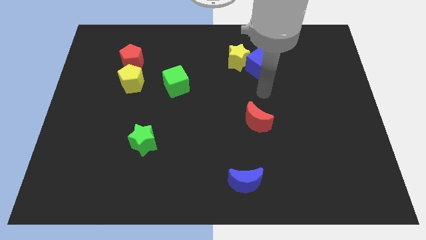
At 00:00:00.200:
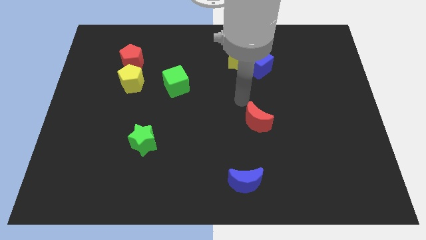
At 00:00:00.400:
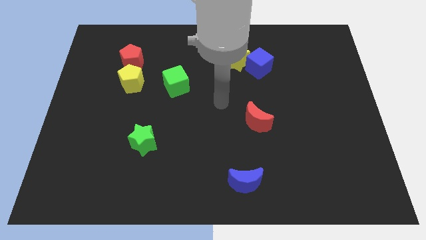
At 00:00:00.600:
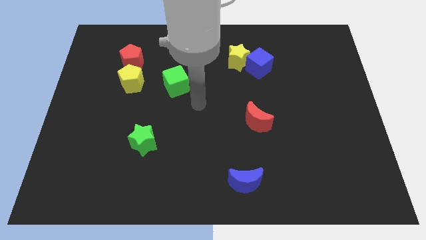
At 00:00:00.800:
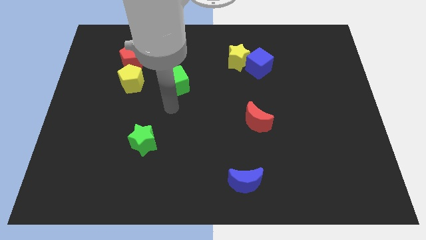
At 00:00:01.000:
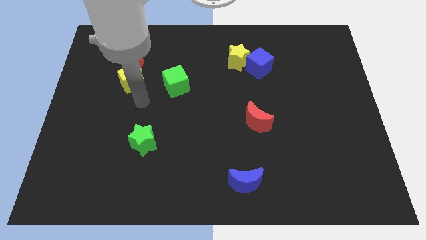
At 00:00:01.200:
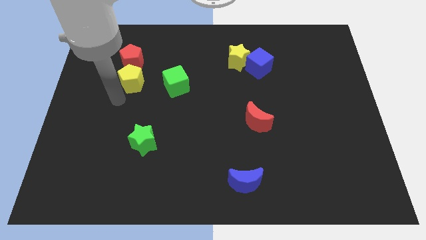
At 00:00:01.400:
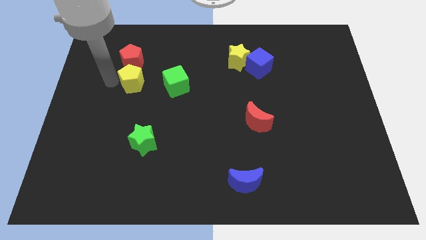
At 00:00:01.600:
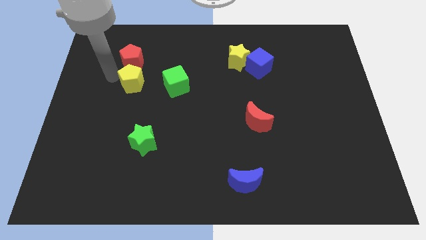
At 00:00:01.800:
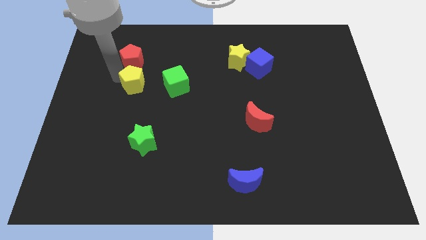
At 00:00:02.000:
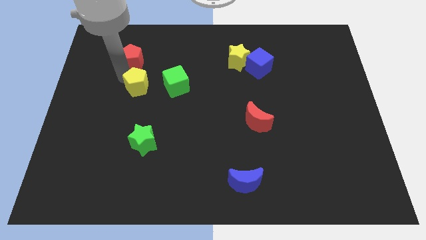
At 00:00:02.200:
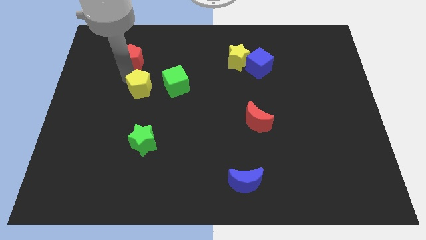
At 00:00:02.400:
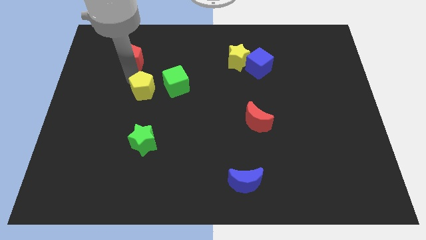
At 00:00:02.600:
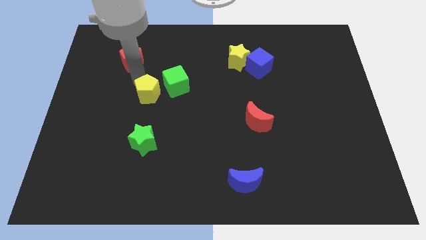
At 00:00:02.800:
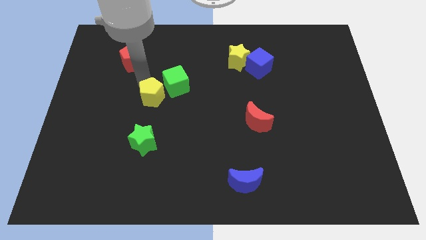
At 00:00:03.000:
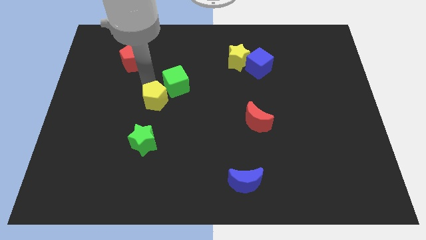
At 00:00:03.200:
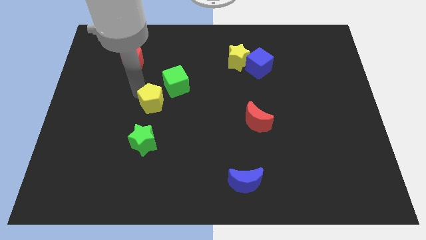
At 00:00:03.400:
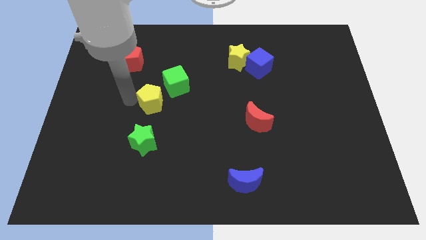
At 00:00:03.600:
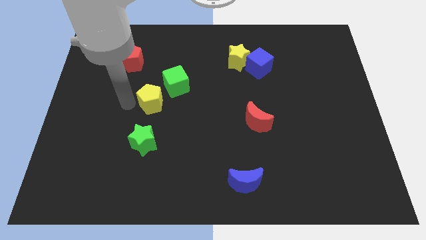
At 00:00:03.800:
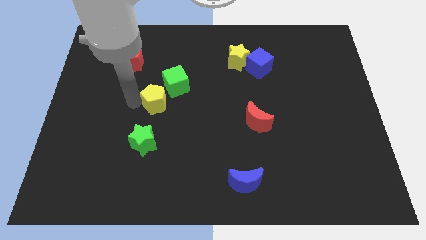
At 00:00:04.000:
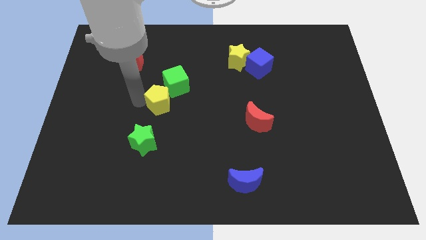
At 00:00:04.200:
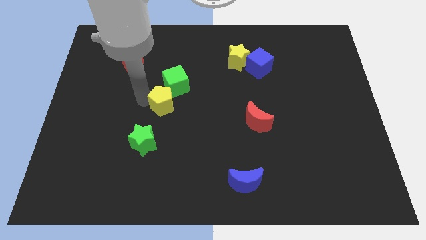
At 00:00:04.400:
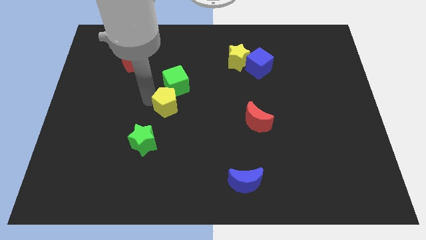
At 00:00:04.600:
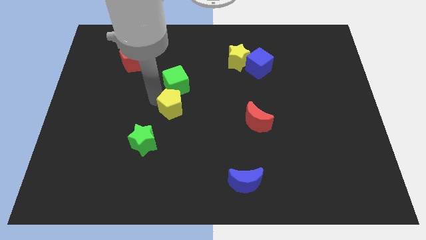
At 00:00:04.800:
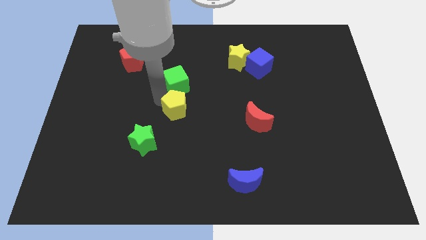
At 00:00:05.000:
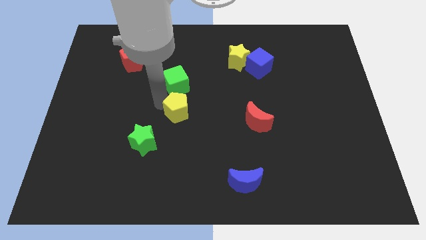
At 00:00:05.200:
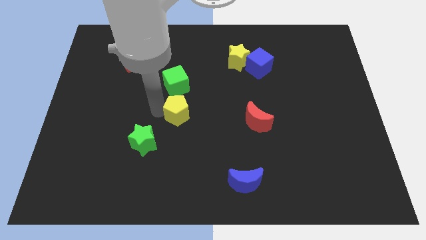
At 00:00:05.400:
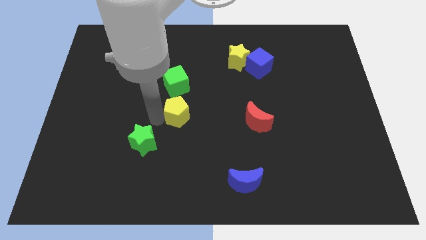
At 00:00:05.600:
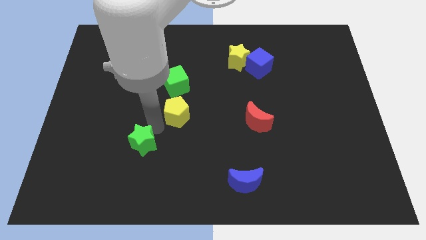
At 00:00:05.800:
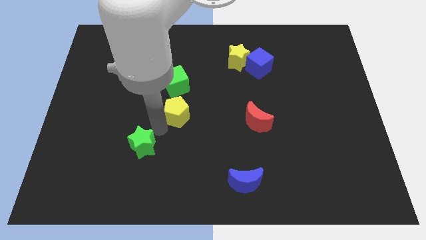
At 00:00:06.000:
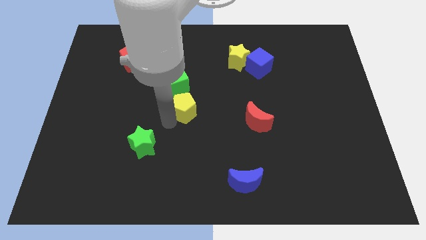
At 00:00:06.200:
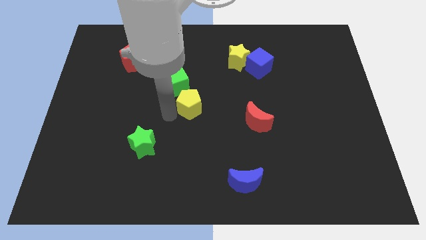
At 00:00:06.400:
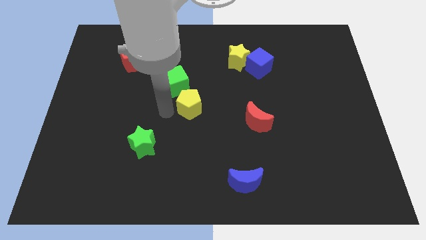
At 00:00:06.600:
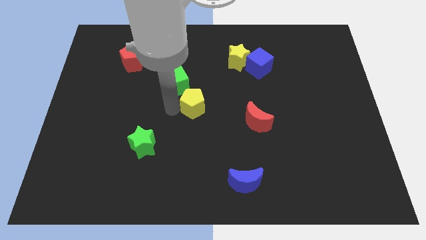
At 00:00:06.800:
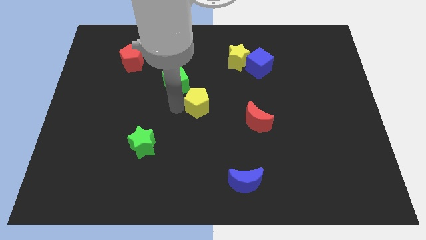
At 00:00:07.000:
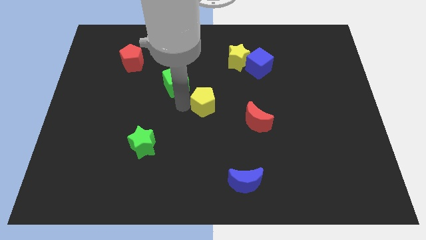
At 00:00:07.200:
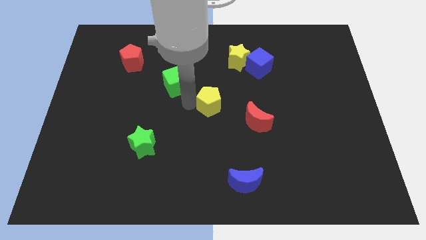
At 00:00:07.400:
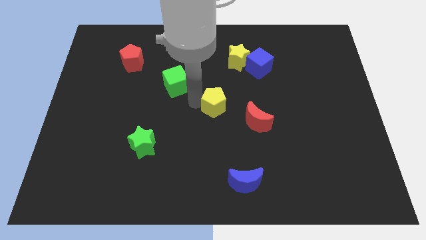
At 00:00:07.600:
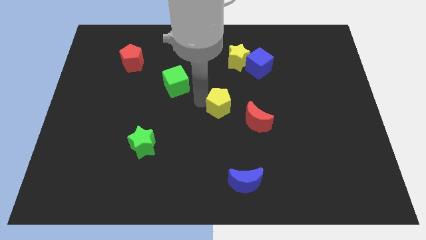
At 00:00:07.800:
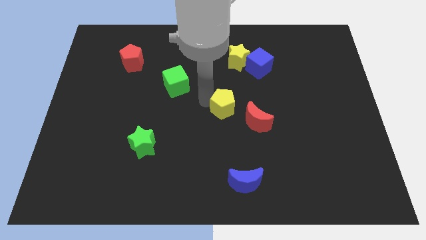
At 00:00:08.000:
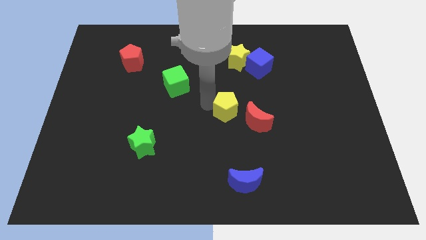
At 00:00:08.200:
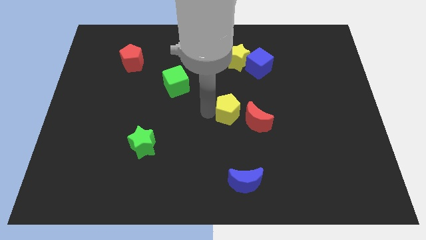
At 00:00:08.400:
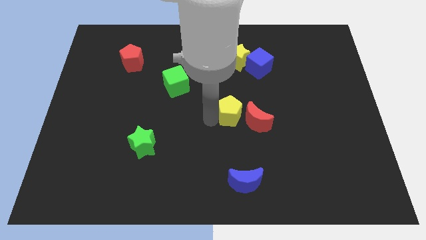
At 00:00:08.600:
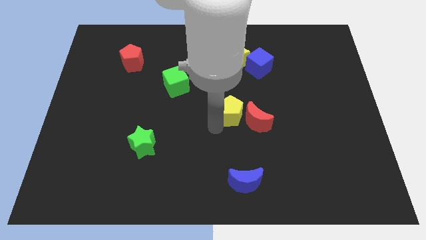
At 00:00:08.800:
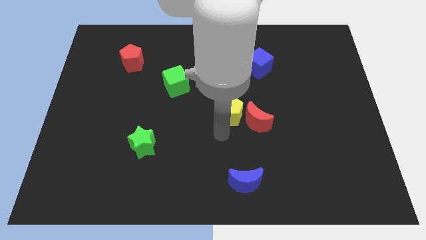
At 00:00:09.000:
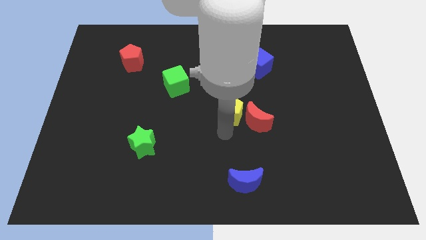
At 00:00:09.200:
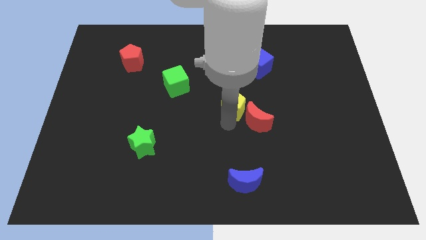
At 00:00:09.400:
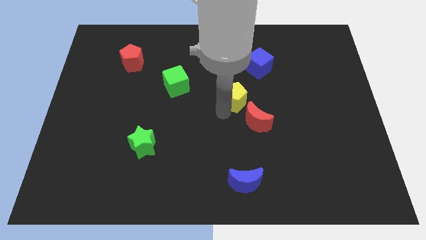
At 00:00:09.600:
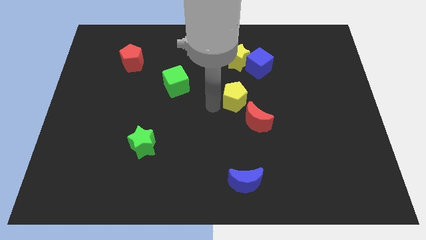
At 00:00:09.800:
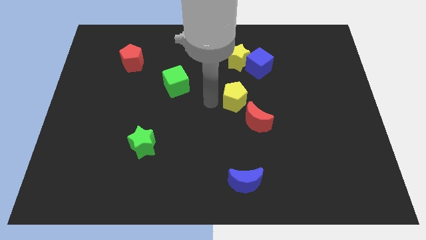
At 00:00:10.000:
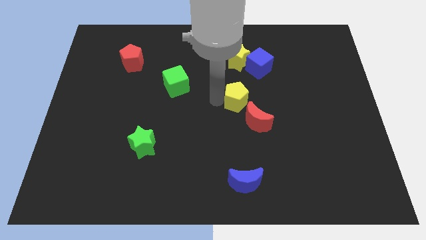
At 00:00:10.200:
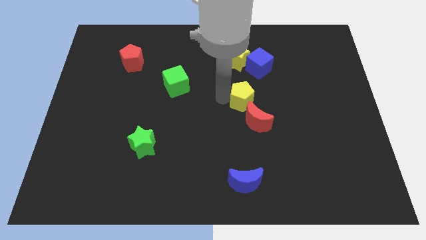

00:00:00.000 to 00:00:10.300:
slide the yellow pentagon to the bottom of the blue cube

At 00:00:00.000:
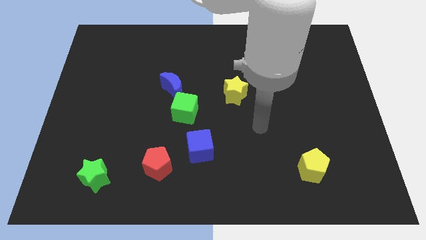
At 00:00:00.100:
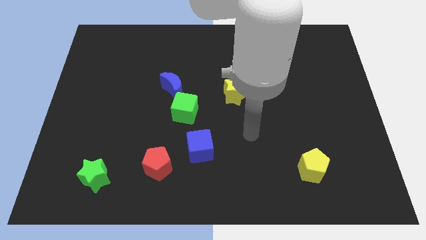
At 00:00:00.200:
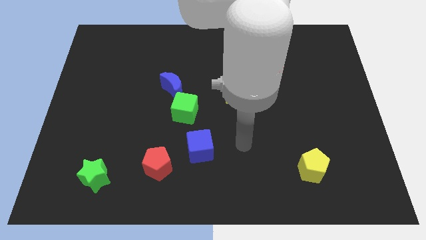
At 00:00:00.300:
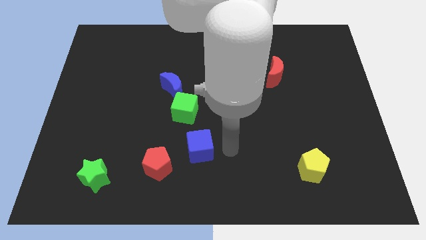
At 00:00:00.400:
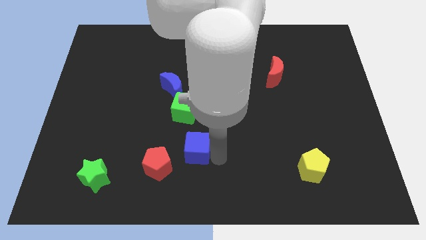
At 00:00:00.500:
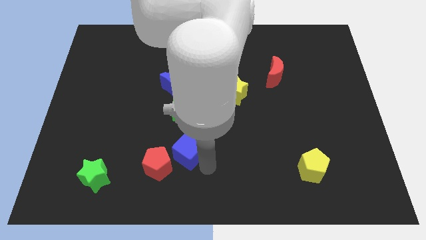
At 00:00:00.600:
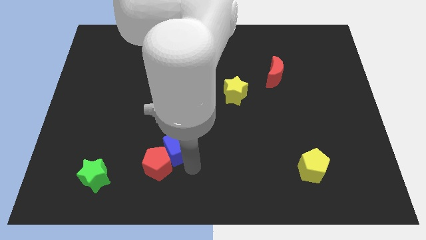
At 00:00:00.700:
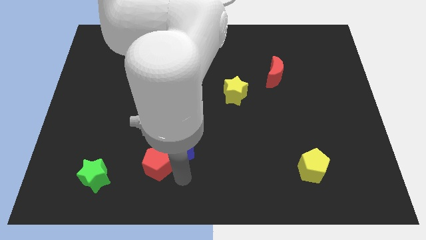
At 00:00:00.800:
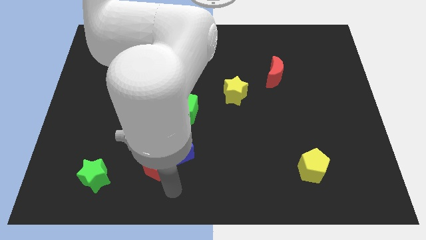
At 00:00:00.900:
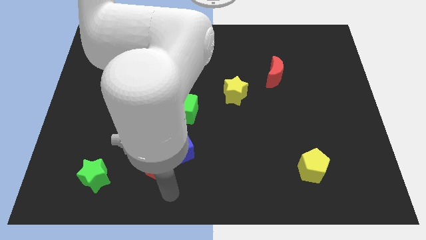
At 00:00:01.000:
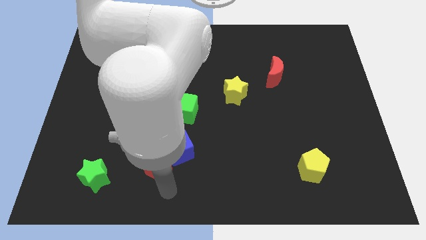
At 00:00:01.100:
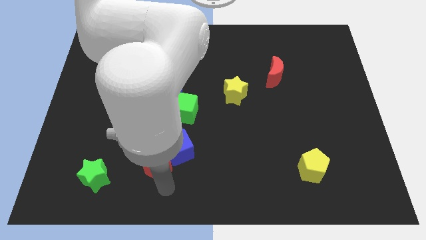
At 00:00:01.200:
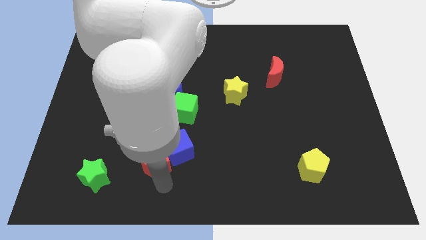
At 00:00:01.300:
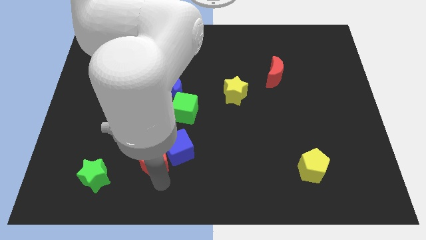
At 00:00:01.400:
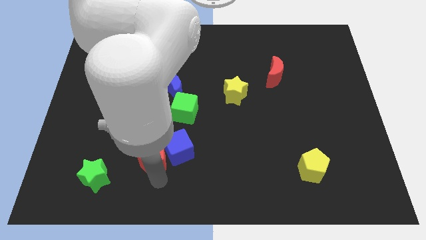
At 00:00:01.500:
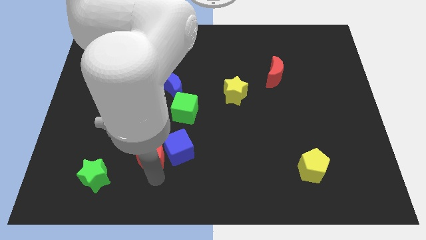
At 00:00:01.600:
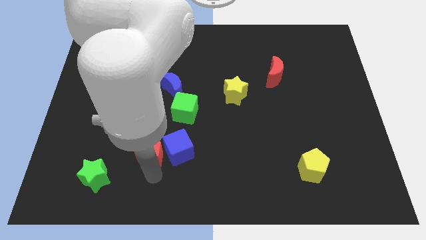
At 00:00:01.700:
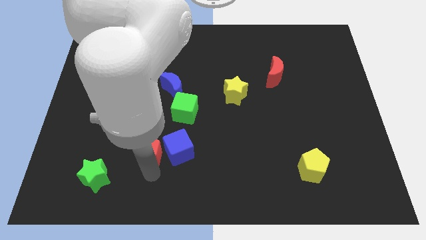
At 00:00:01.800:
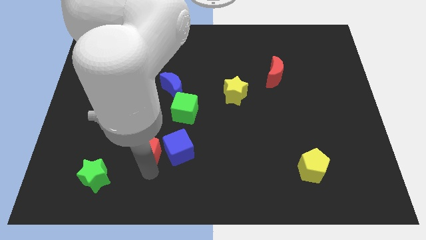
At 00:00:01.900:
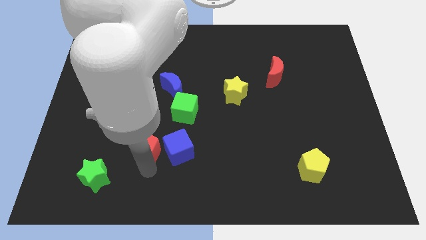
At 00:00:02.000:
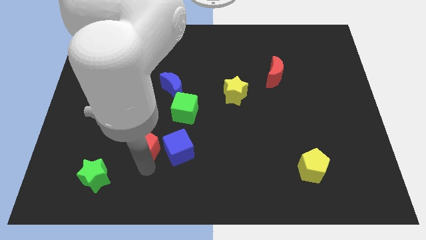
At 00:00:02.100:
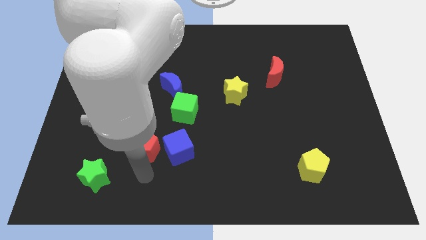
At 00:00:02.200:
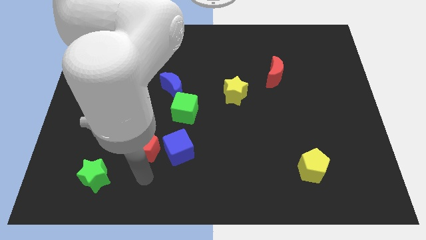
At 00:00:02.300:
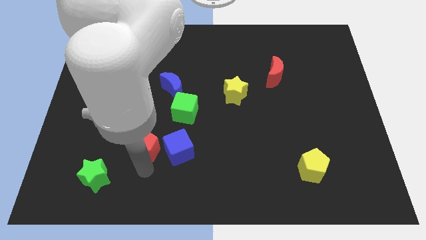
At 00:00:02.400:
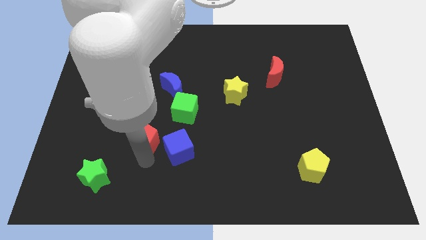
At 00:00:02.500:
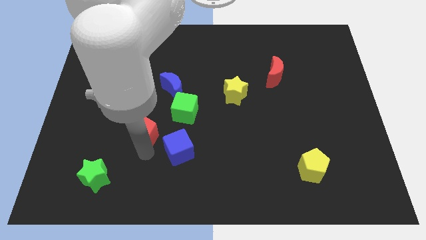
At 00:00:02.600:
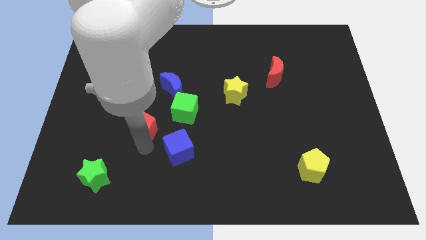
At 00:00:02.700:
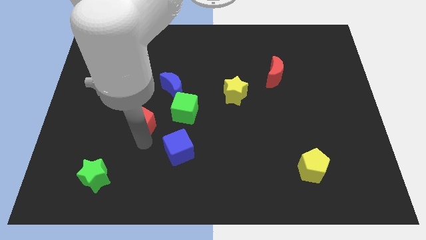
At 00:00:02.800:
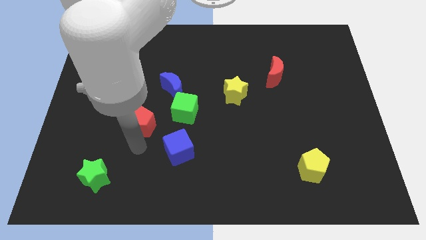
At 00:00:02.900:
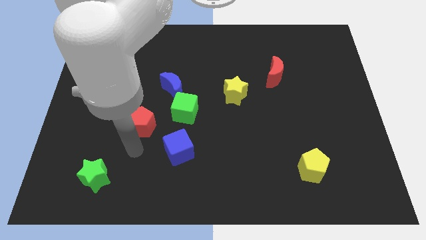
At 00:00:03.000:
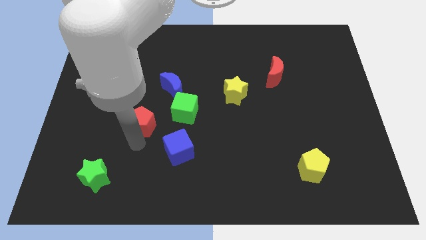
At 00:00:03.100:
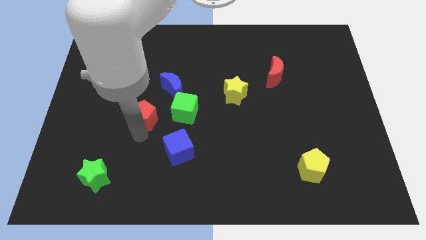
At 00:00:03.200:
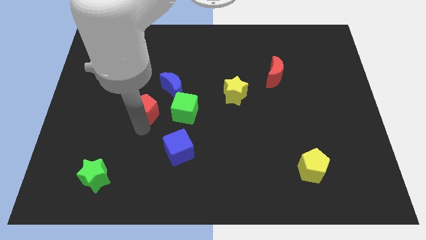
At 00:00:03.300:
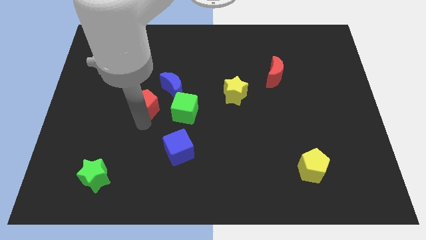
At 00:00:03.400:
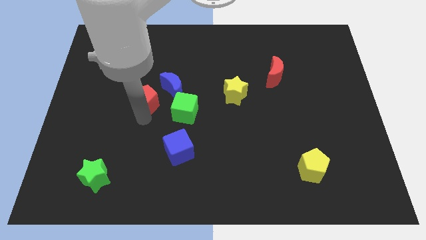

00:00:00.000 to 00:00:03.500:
put the red pentagon to the top left of the green cube
